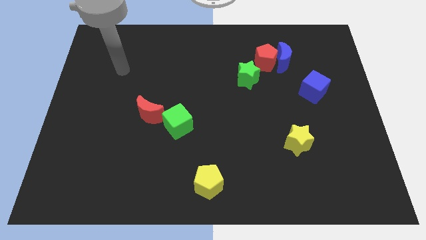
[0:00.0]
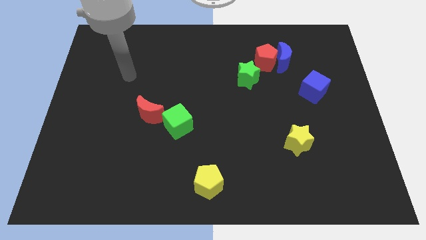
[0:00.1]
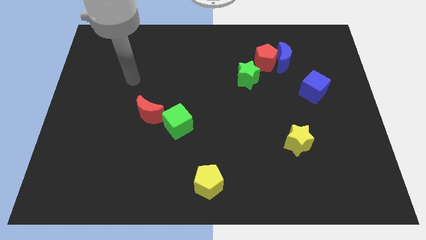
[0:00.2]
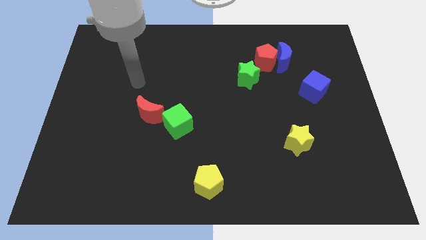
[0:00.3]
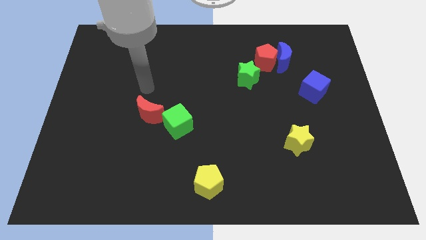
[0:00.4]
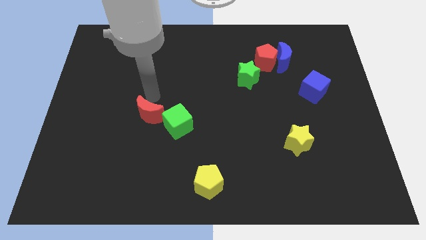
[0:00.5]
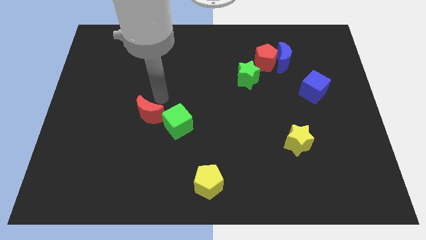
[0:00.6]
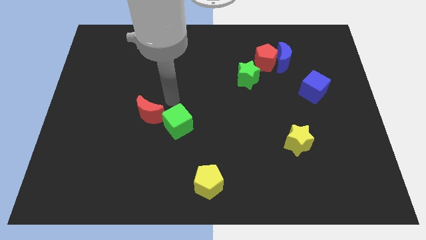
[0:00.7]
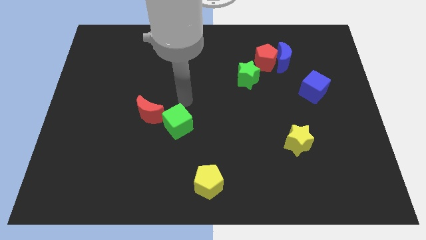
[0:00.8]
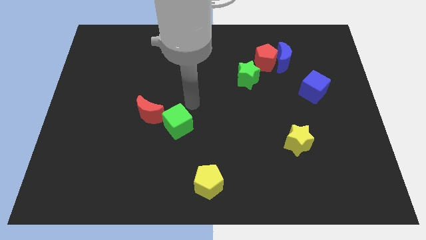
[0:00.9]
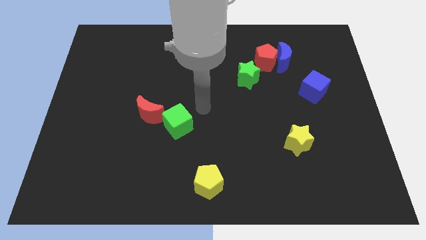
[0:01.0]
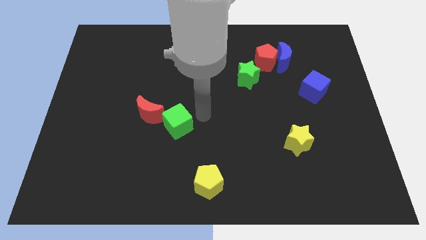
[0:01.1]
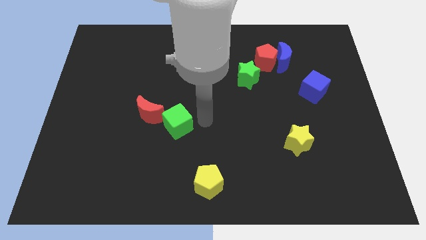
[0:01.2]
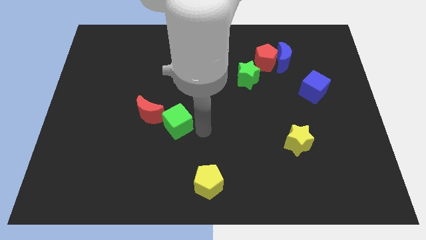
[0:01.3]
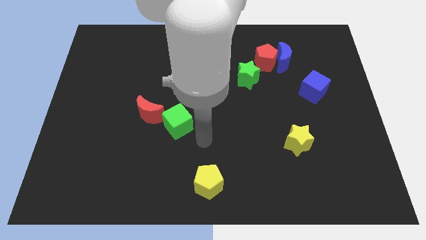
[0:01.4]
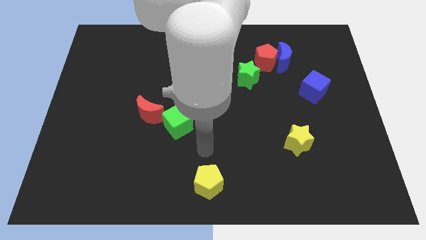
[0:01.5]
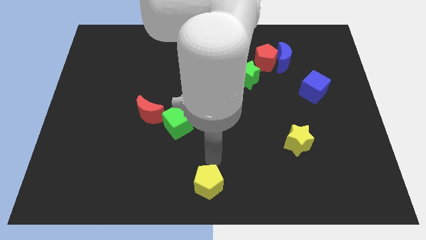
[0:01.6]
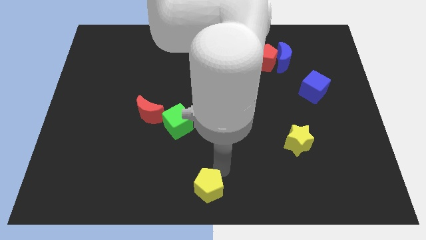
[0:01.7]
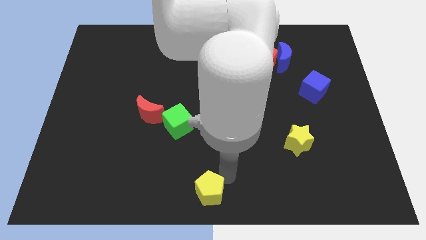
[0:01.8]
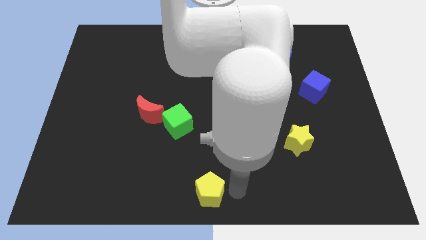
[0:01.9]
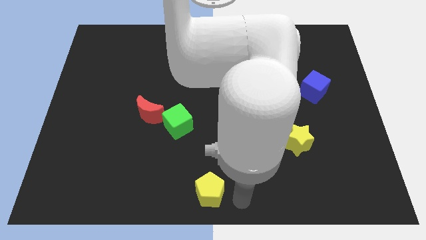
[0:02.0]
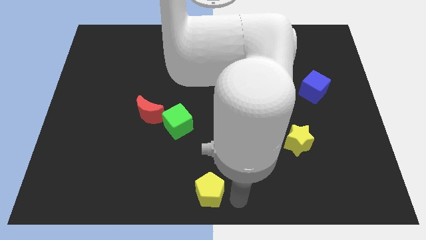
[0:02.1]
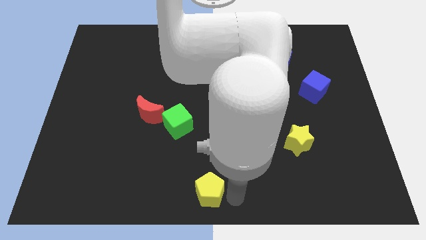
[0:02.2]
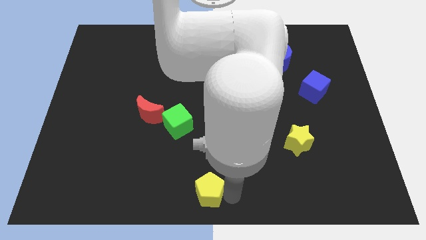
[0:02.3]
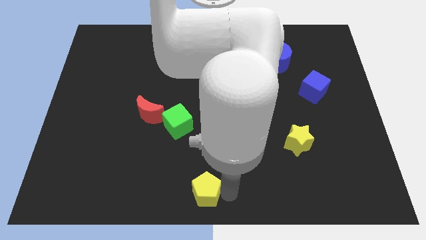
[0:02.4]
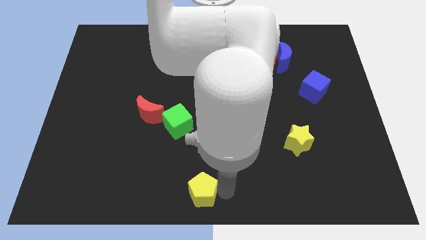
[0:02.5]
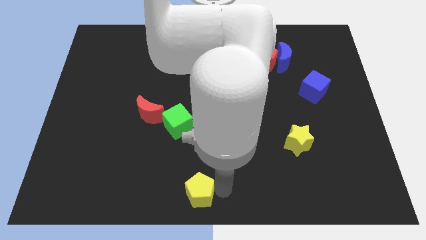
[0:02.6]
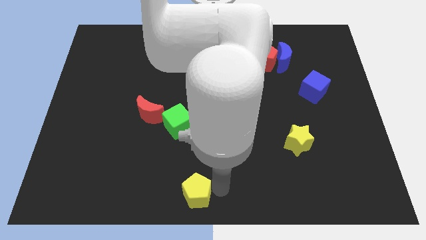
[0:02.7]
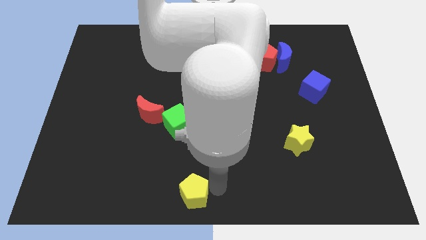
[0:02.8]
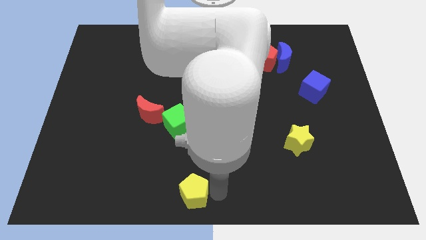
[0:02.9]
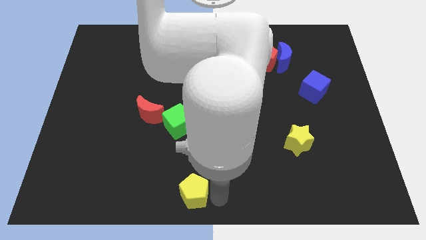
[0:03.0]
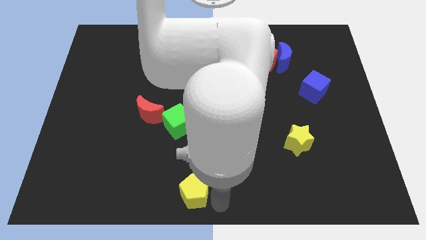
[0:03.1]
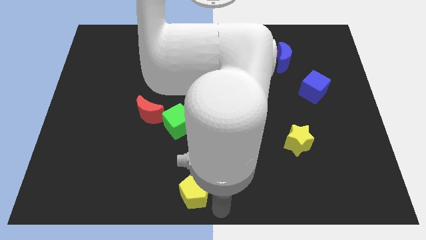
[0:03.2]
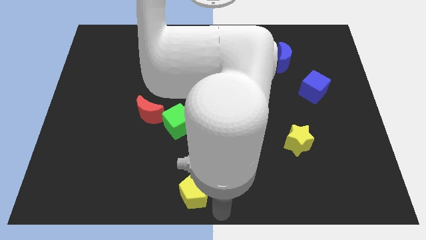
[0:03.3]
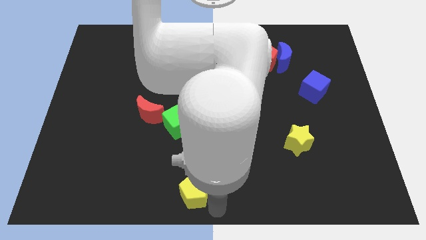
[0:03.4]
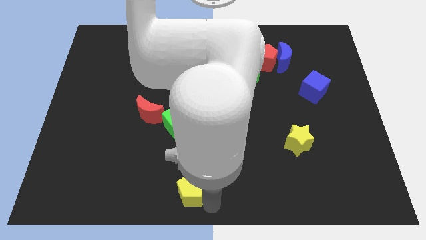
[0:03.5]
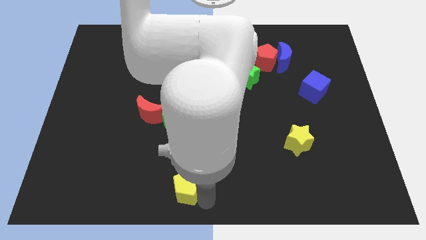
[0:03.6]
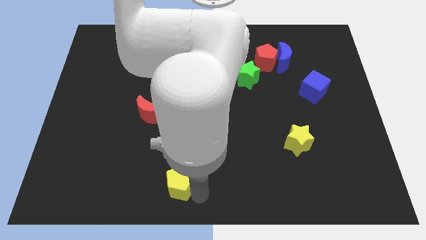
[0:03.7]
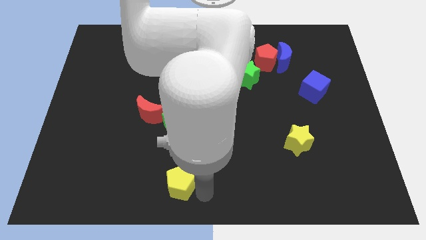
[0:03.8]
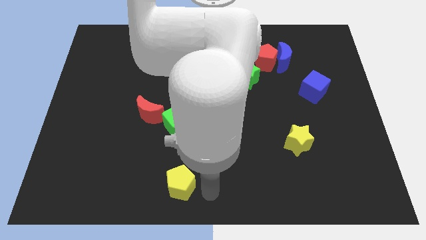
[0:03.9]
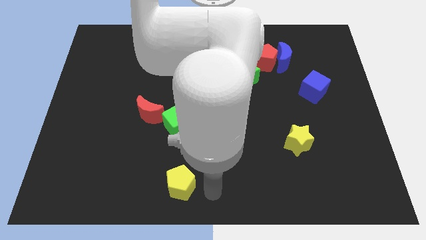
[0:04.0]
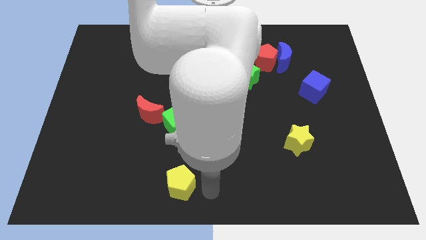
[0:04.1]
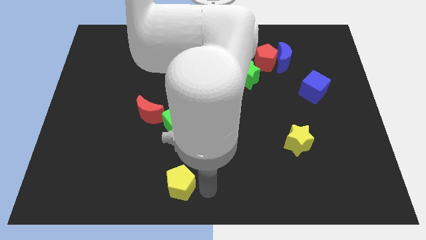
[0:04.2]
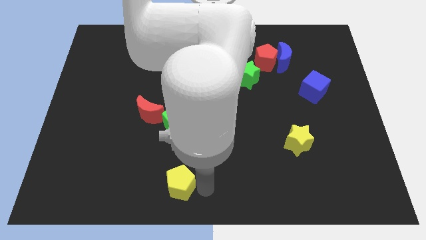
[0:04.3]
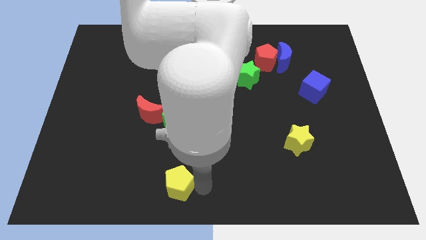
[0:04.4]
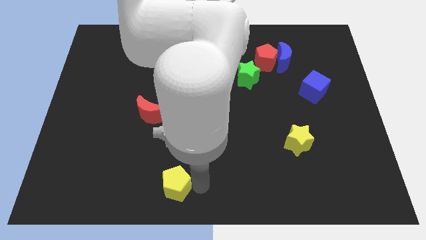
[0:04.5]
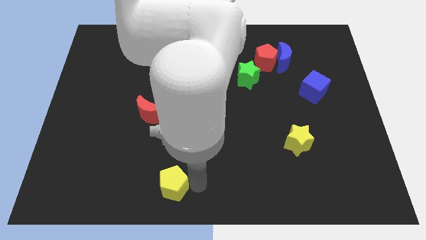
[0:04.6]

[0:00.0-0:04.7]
slightly push the yellow pentagon to the left

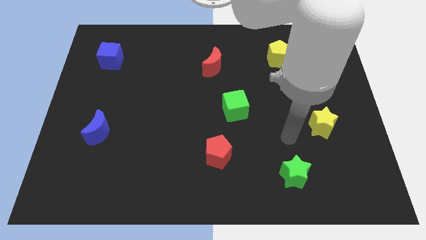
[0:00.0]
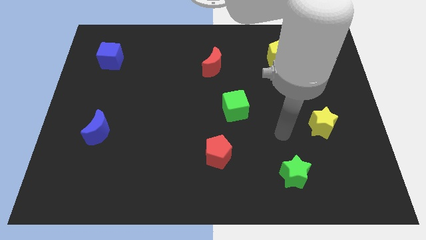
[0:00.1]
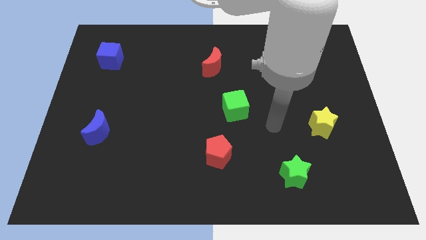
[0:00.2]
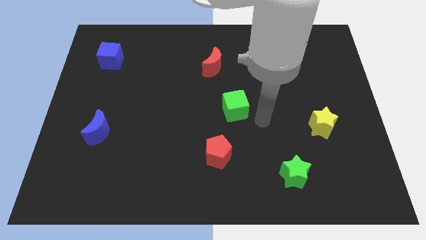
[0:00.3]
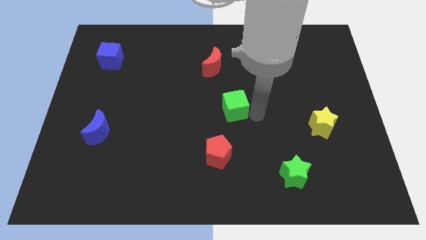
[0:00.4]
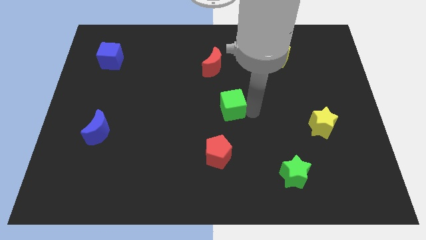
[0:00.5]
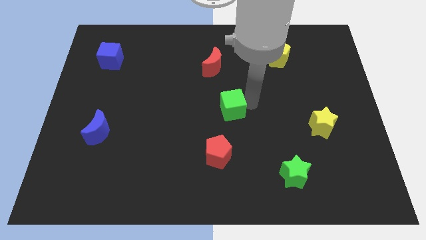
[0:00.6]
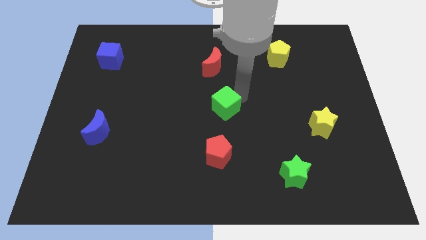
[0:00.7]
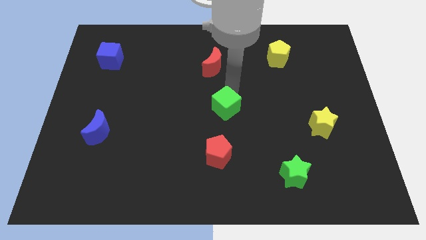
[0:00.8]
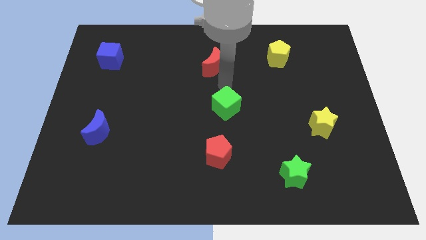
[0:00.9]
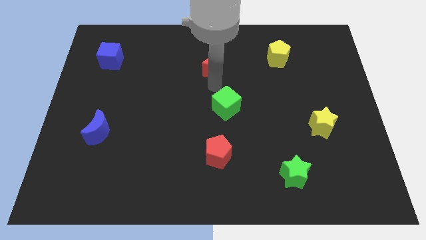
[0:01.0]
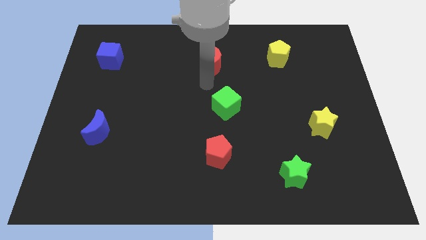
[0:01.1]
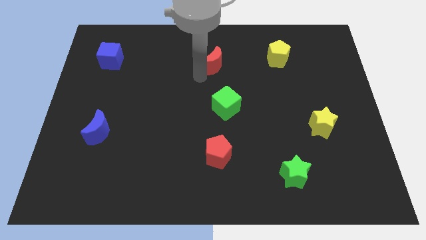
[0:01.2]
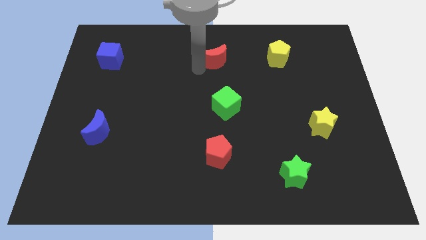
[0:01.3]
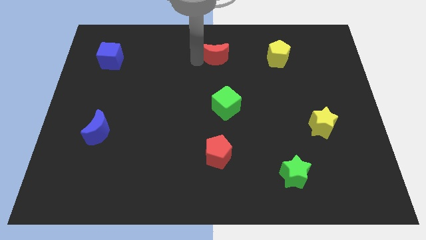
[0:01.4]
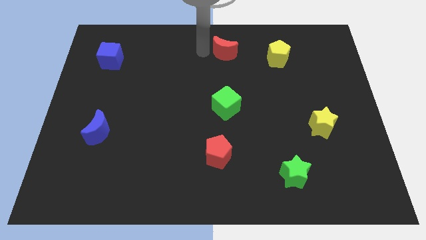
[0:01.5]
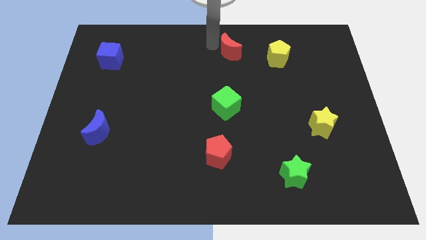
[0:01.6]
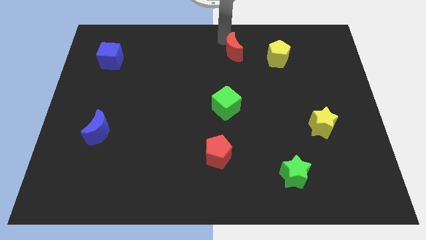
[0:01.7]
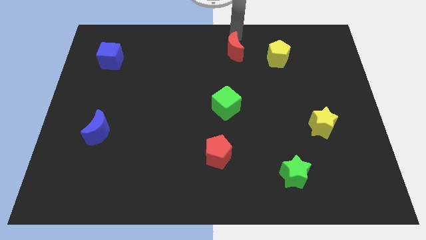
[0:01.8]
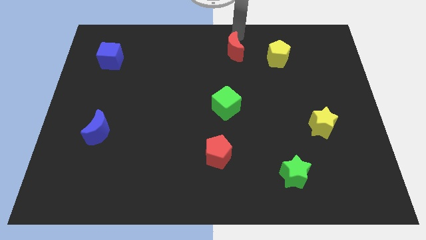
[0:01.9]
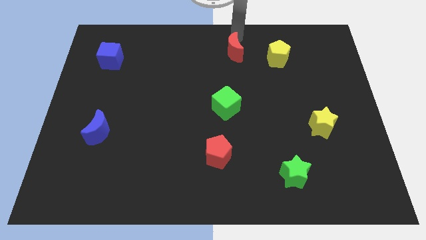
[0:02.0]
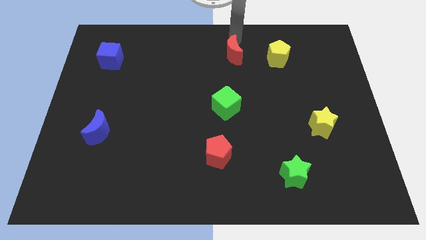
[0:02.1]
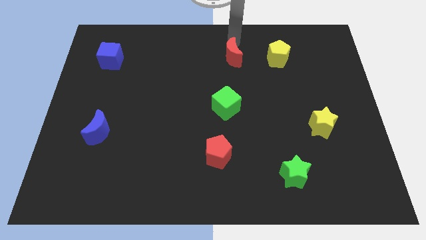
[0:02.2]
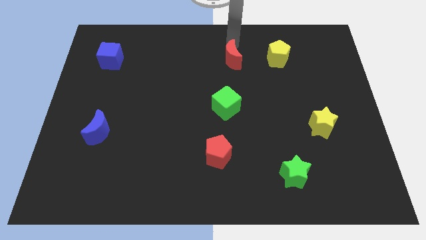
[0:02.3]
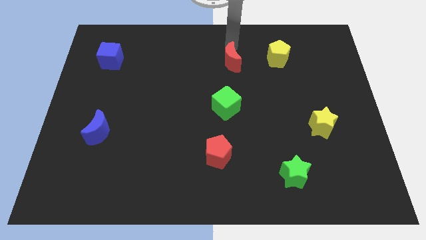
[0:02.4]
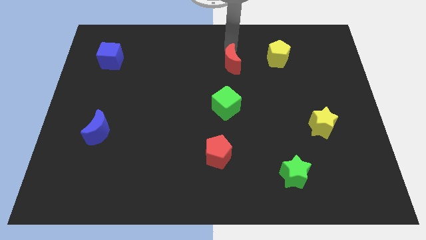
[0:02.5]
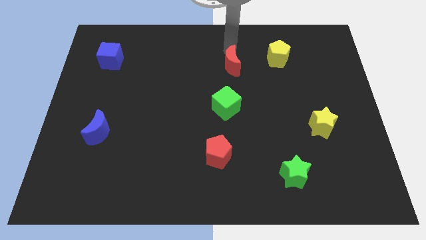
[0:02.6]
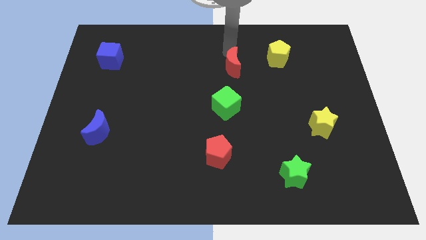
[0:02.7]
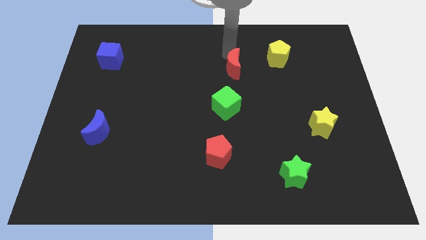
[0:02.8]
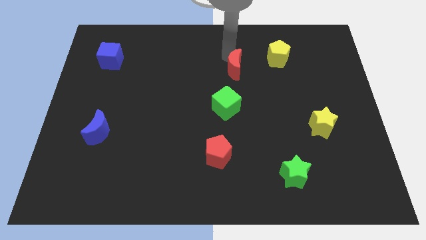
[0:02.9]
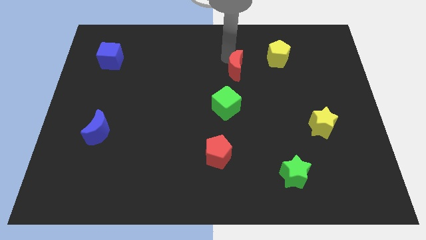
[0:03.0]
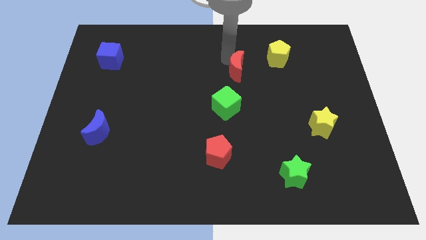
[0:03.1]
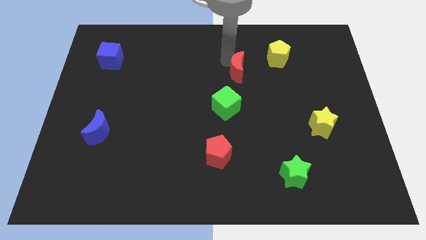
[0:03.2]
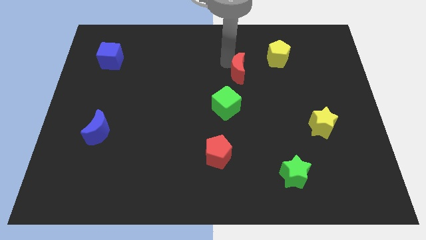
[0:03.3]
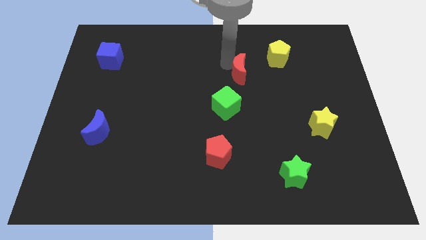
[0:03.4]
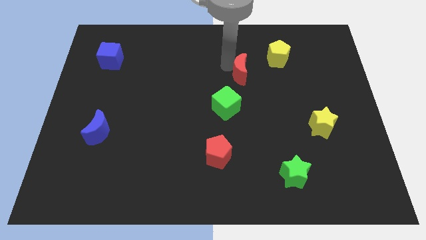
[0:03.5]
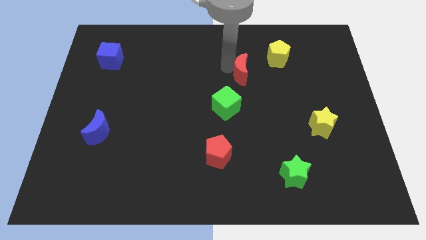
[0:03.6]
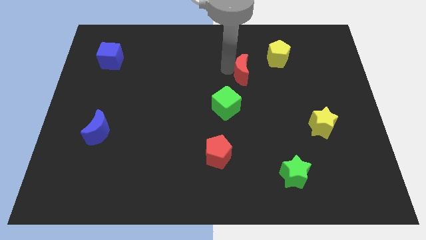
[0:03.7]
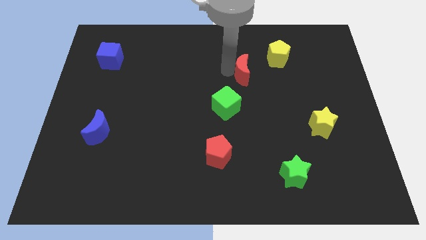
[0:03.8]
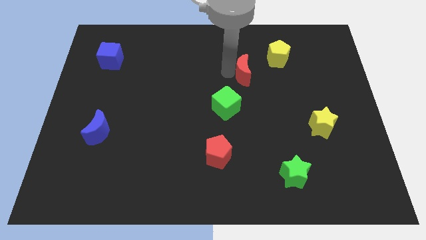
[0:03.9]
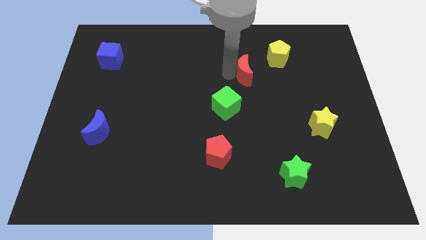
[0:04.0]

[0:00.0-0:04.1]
slightly push the red moon diagonally downwards and to the right
